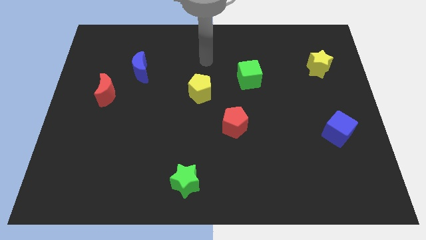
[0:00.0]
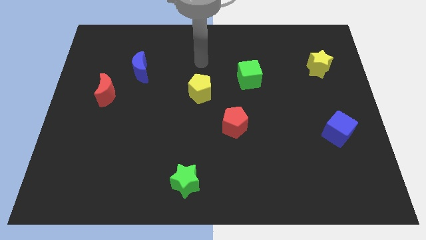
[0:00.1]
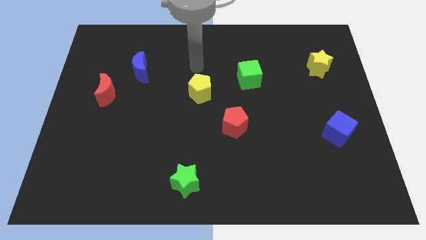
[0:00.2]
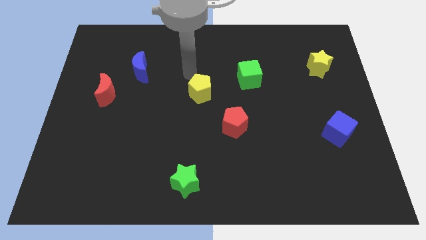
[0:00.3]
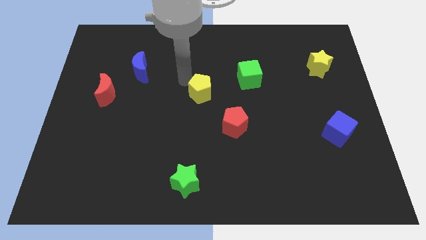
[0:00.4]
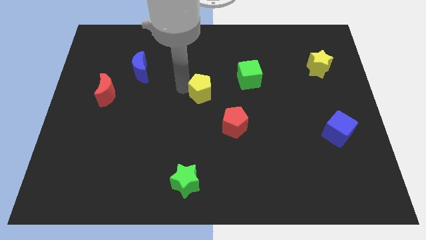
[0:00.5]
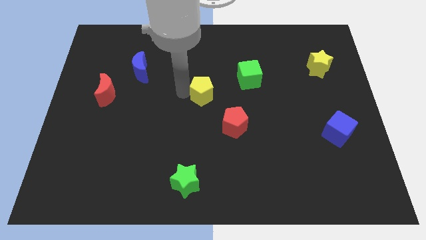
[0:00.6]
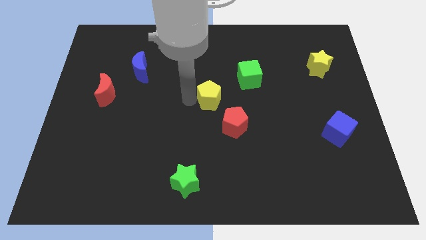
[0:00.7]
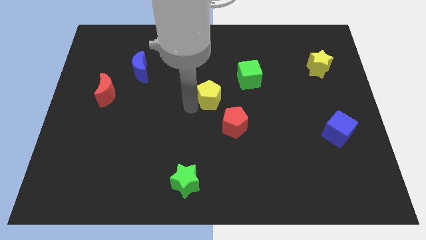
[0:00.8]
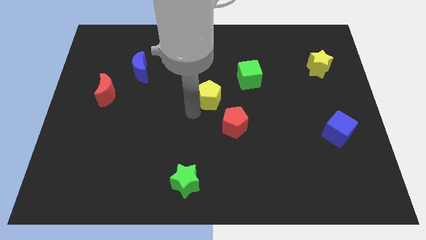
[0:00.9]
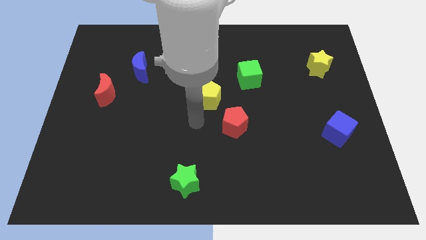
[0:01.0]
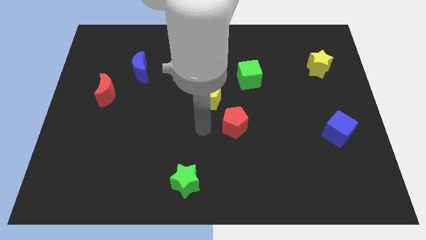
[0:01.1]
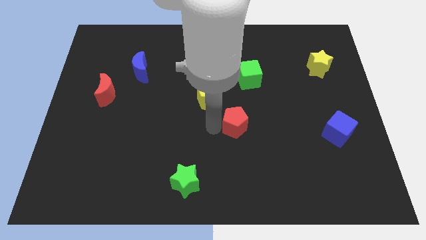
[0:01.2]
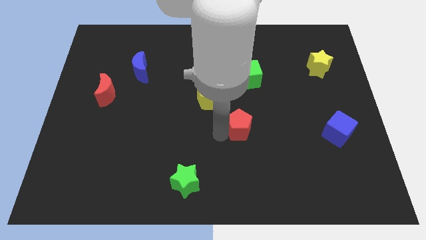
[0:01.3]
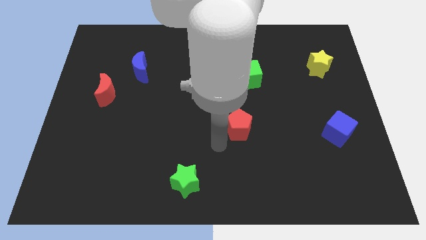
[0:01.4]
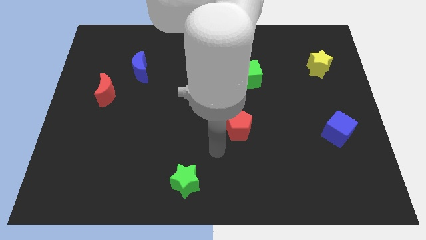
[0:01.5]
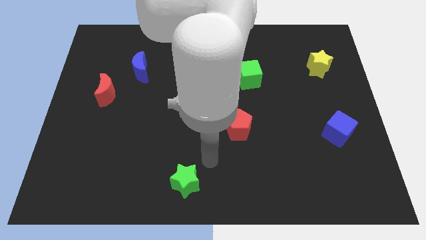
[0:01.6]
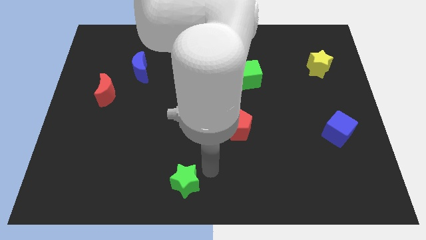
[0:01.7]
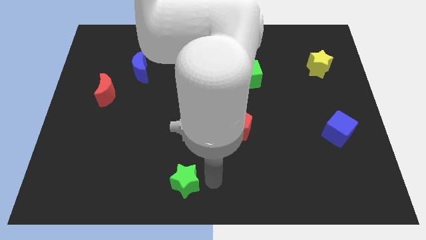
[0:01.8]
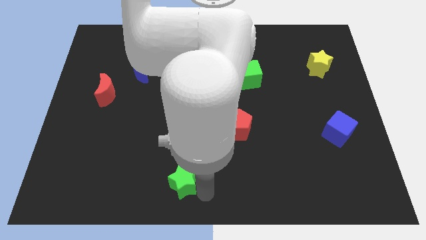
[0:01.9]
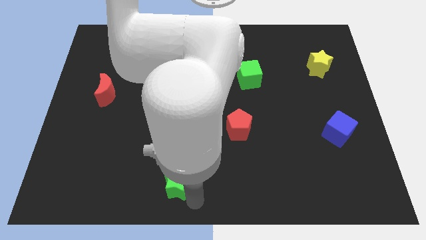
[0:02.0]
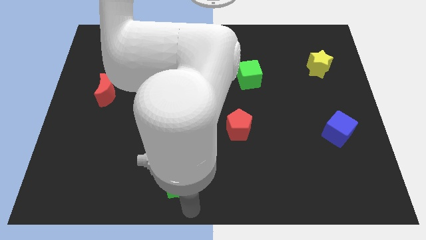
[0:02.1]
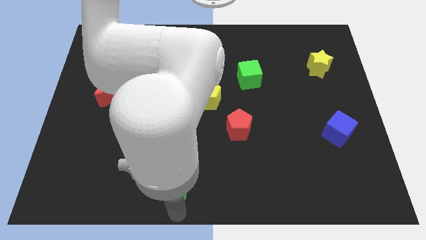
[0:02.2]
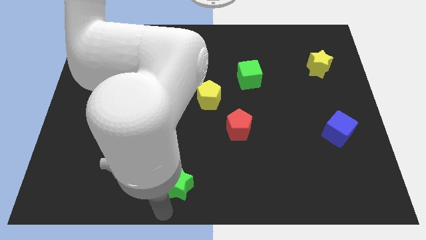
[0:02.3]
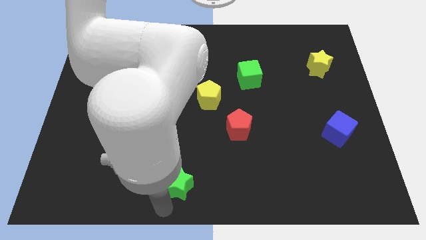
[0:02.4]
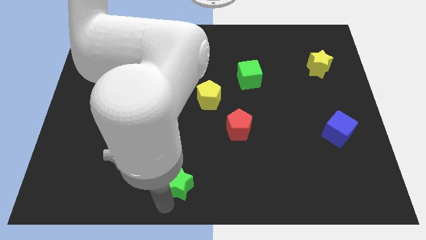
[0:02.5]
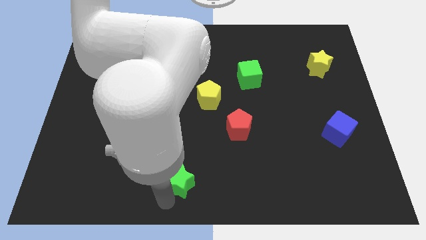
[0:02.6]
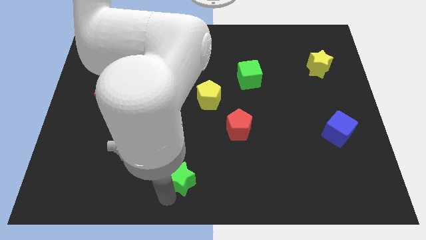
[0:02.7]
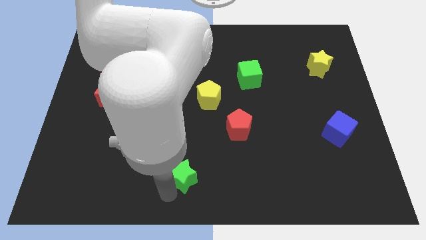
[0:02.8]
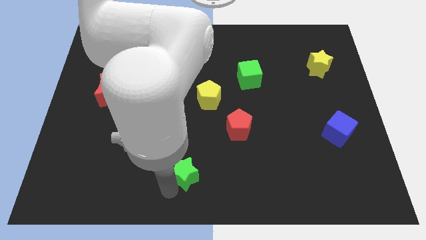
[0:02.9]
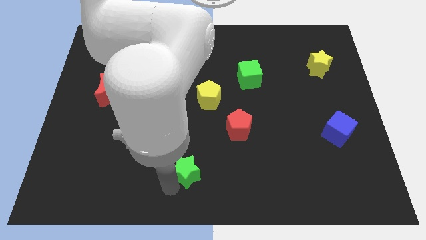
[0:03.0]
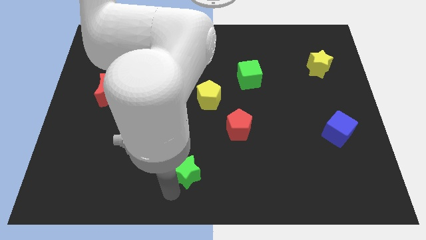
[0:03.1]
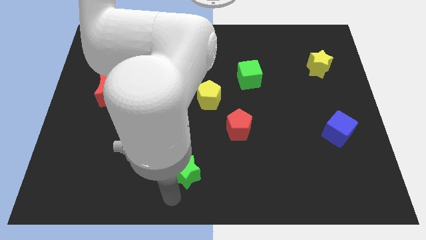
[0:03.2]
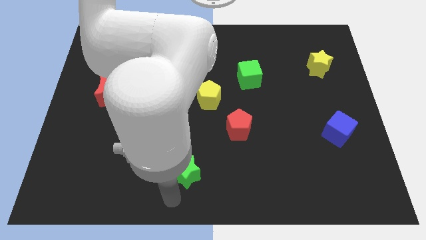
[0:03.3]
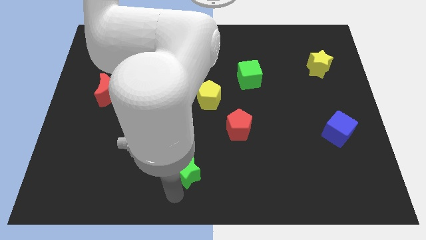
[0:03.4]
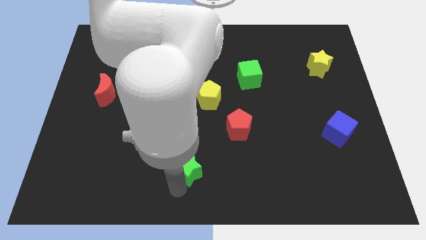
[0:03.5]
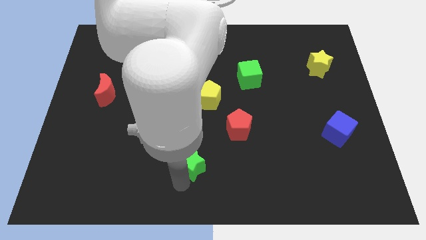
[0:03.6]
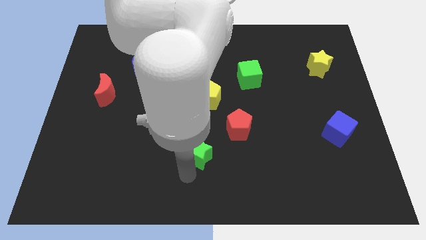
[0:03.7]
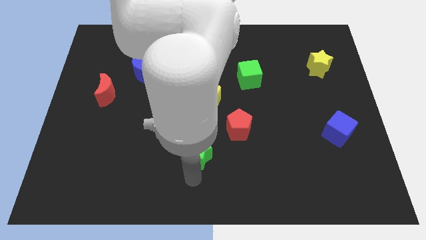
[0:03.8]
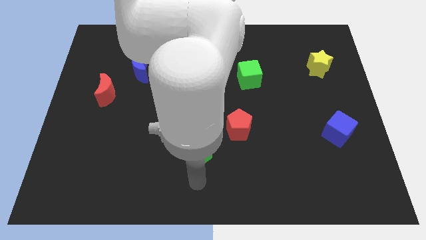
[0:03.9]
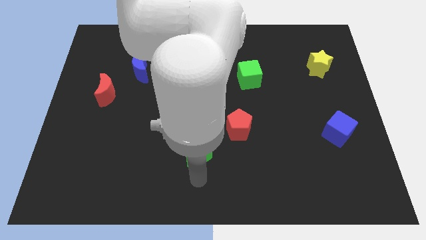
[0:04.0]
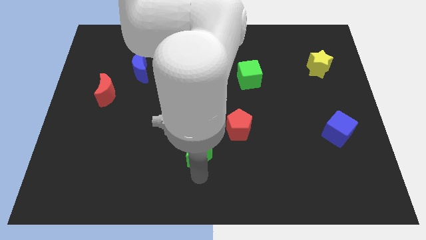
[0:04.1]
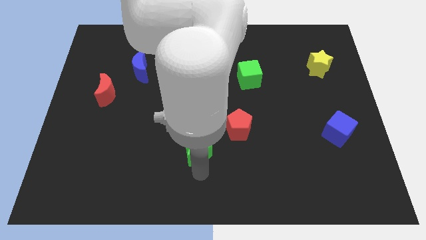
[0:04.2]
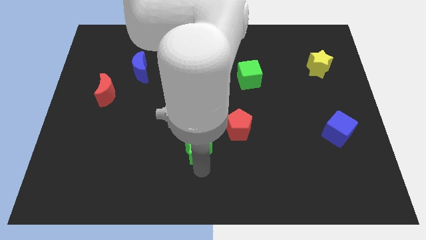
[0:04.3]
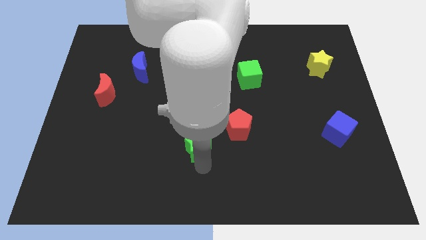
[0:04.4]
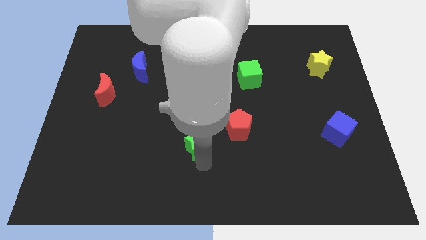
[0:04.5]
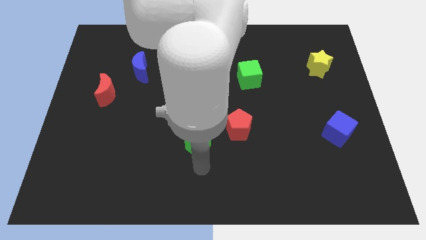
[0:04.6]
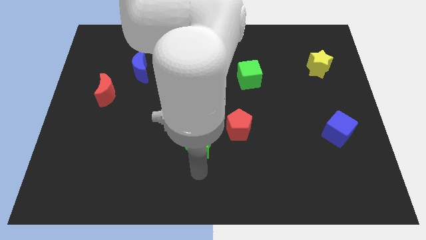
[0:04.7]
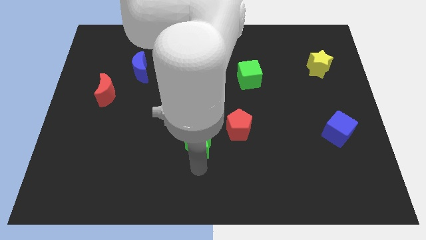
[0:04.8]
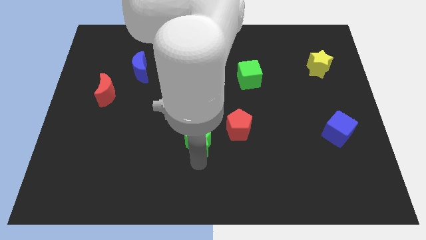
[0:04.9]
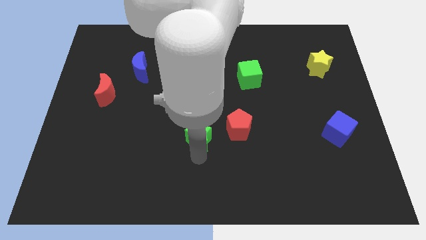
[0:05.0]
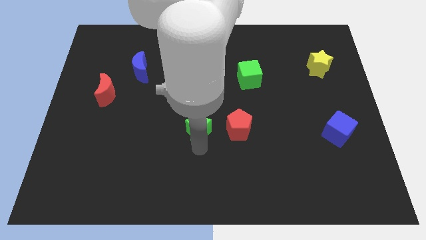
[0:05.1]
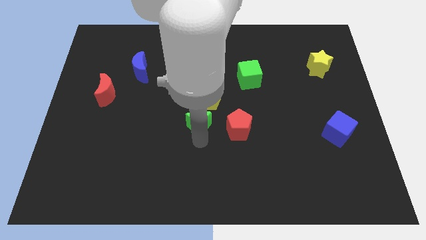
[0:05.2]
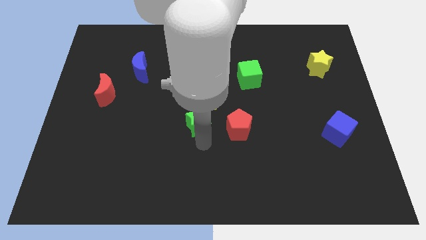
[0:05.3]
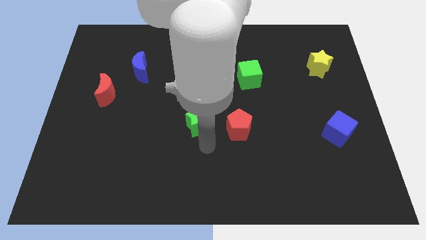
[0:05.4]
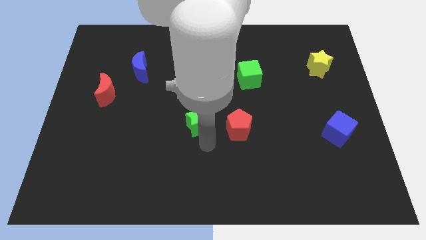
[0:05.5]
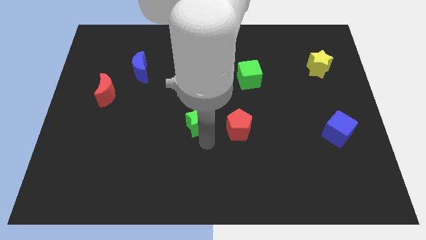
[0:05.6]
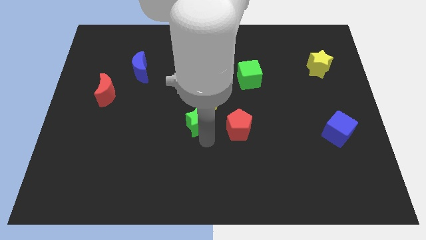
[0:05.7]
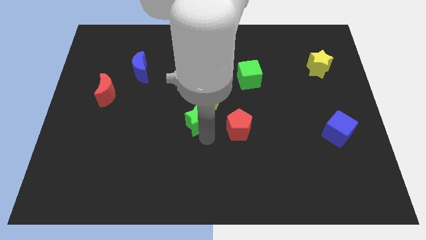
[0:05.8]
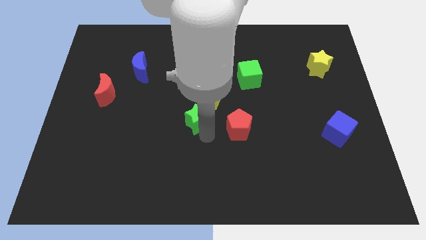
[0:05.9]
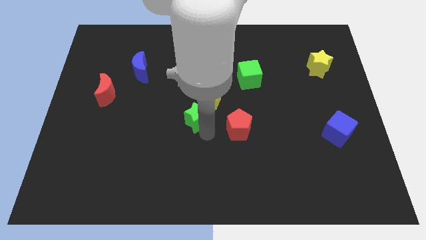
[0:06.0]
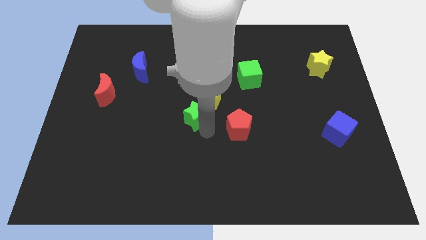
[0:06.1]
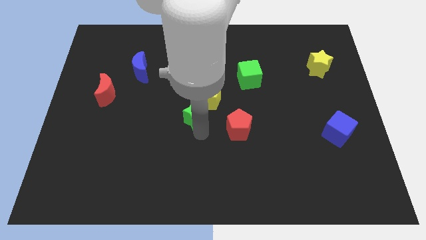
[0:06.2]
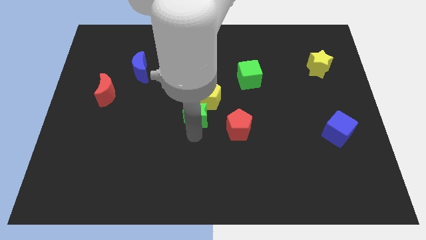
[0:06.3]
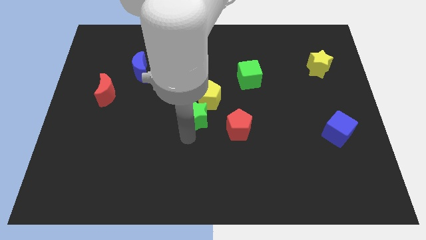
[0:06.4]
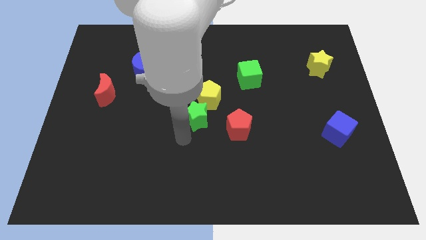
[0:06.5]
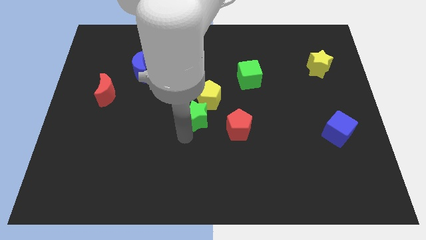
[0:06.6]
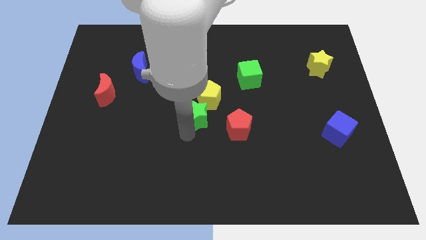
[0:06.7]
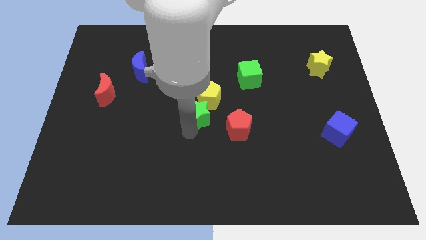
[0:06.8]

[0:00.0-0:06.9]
slide the green star close to the yellow pentagon

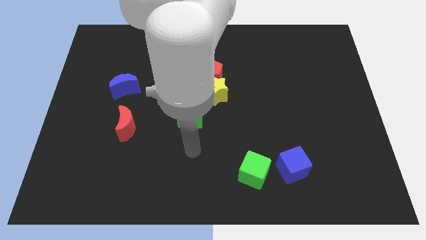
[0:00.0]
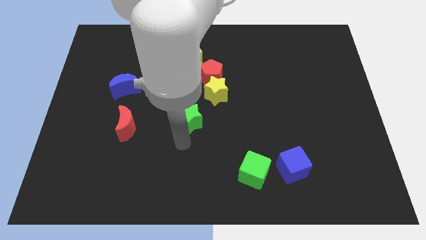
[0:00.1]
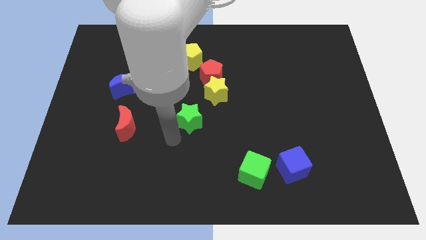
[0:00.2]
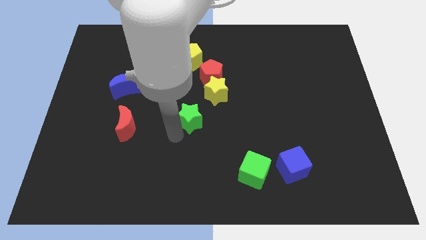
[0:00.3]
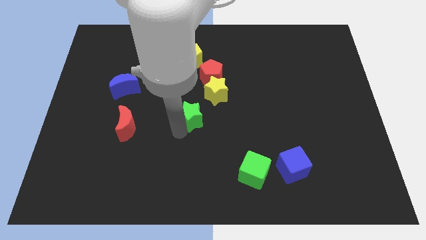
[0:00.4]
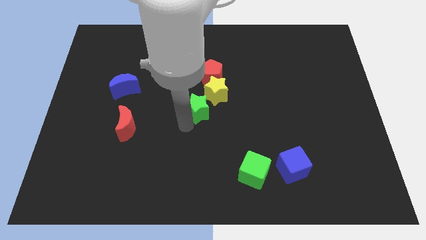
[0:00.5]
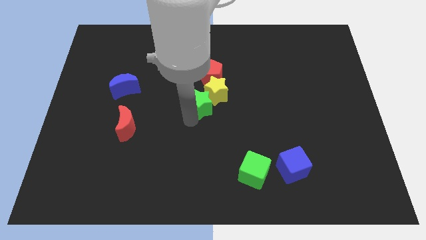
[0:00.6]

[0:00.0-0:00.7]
slide the green star towards the yellow star
